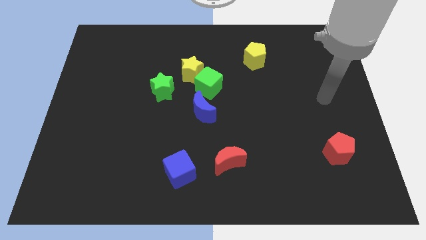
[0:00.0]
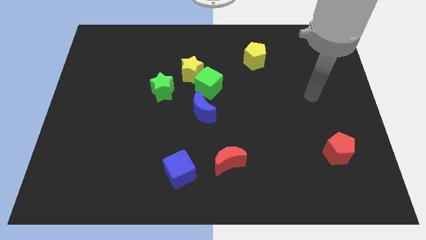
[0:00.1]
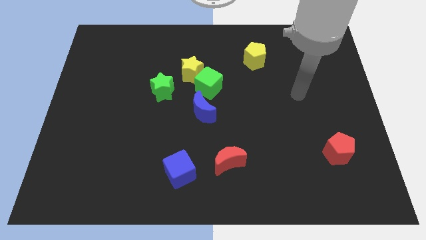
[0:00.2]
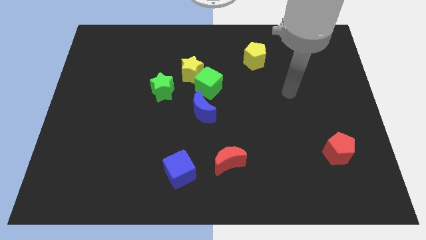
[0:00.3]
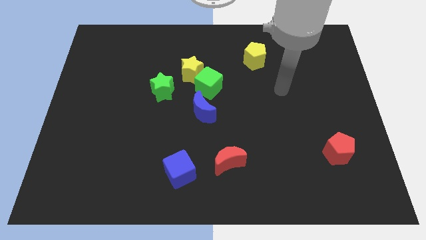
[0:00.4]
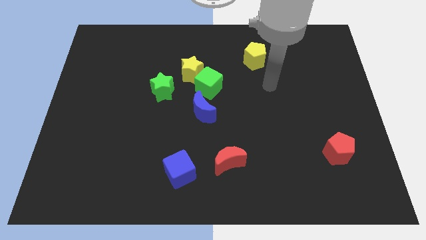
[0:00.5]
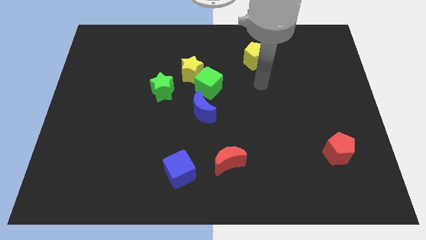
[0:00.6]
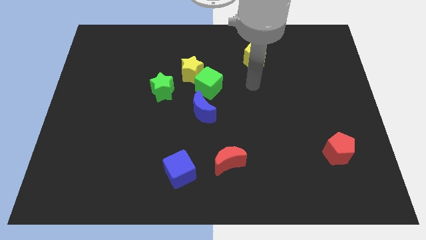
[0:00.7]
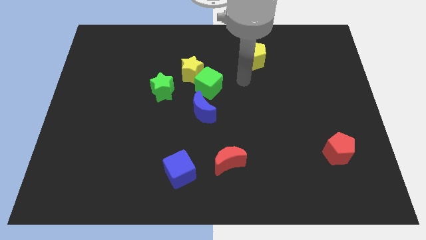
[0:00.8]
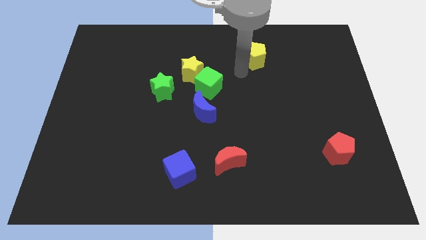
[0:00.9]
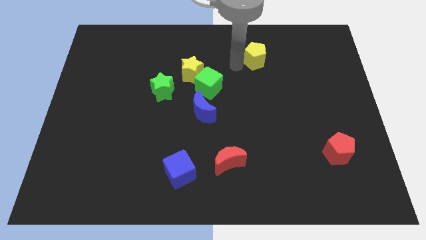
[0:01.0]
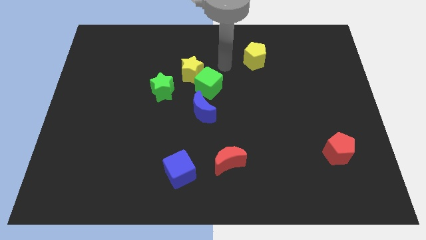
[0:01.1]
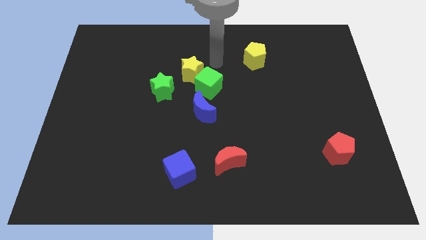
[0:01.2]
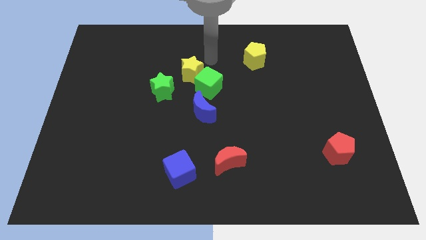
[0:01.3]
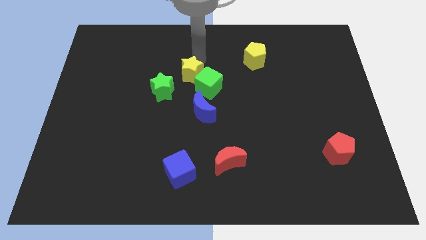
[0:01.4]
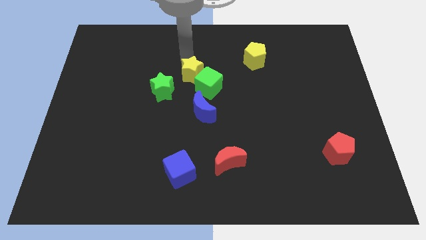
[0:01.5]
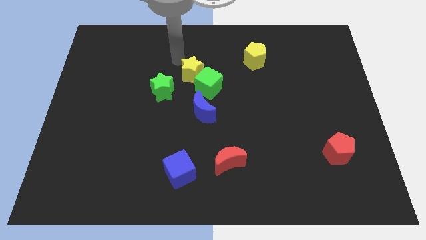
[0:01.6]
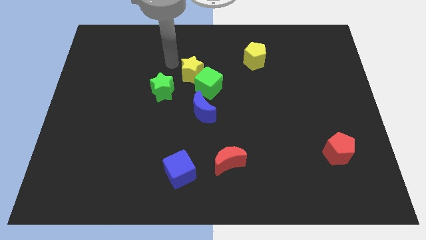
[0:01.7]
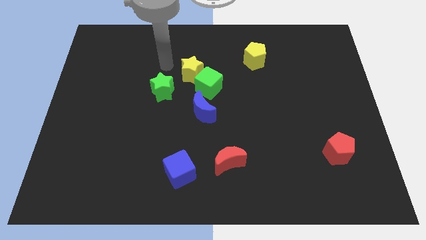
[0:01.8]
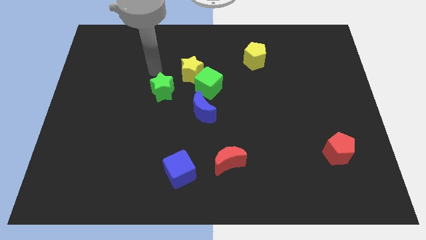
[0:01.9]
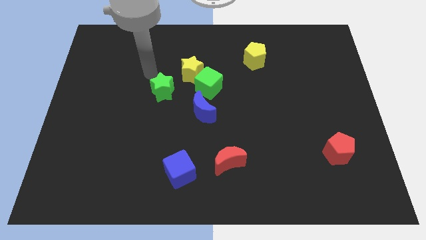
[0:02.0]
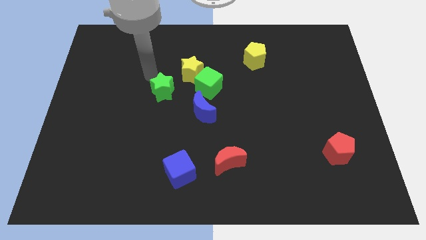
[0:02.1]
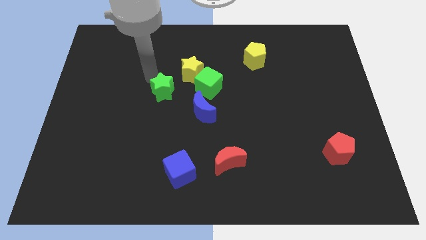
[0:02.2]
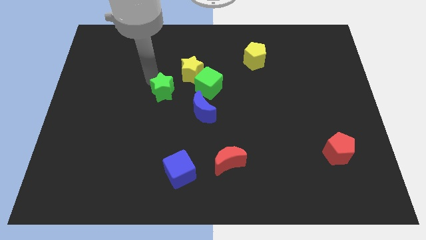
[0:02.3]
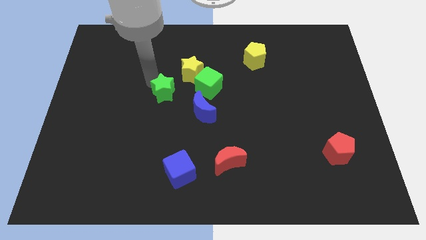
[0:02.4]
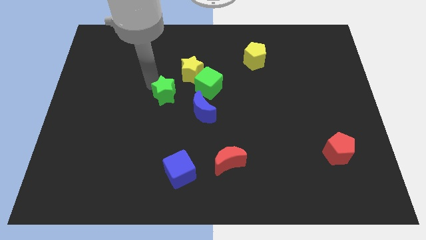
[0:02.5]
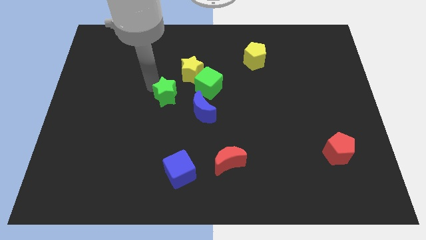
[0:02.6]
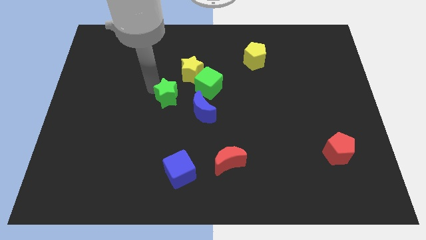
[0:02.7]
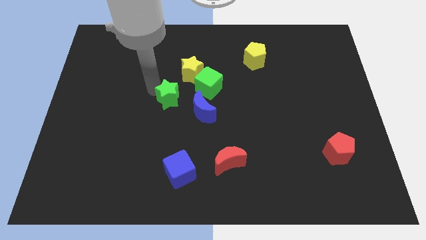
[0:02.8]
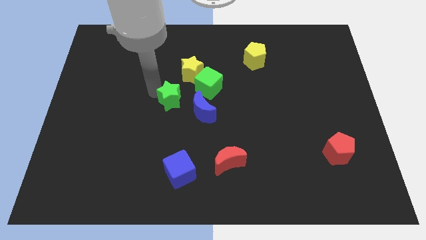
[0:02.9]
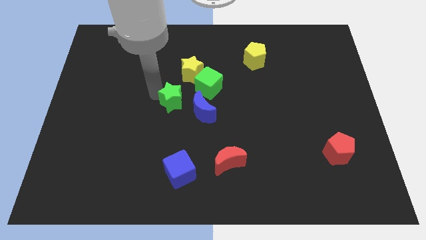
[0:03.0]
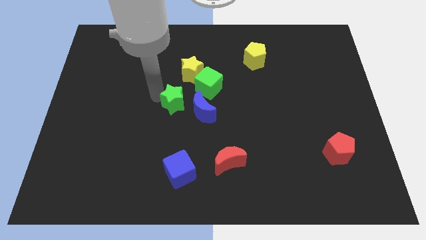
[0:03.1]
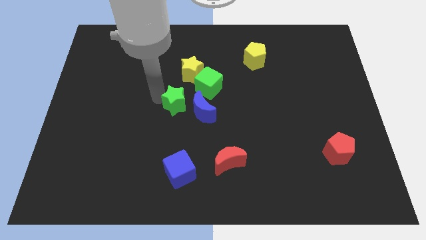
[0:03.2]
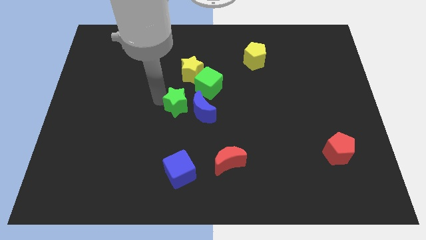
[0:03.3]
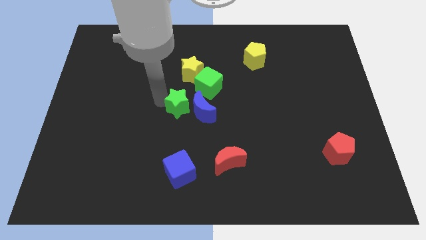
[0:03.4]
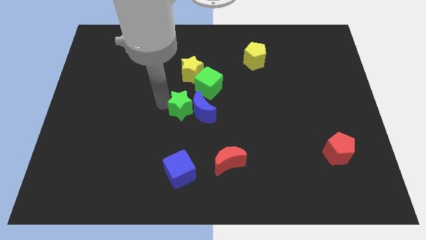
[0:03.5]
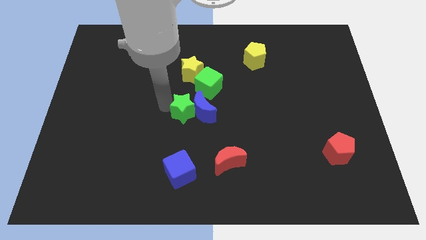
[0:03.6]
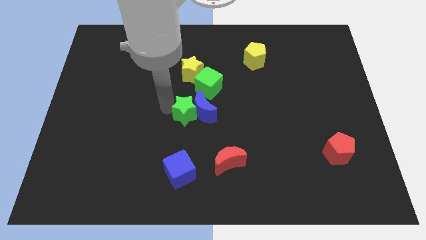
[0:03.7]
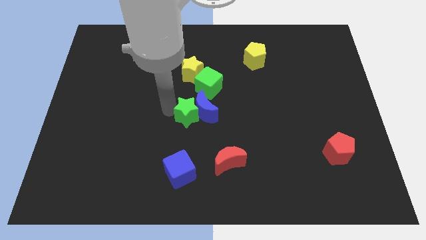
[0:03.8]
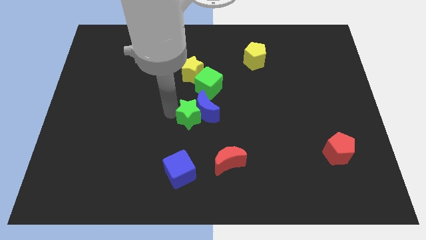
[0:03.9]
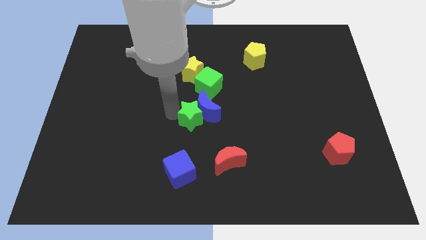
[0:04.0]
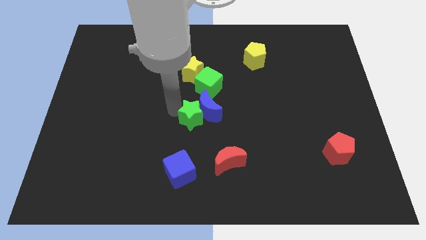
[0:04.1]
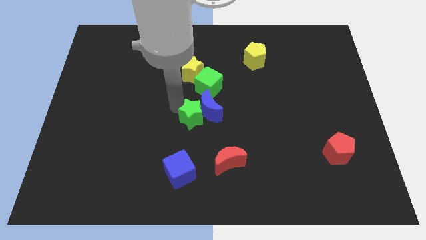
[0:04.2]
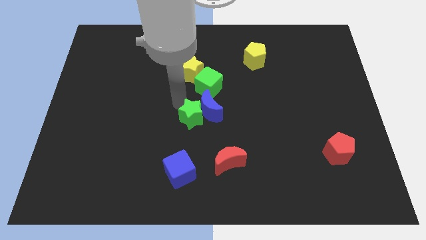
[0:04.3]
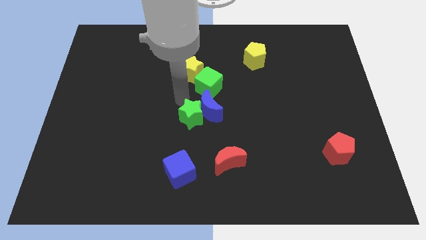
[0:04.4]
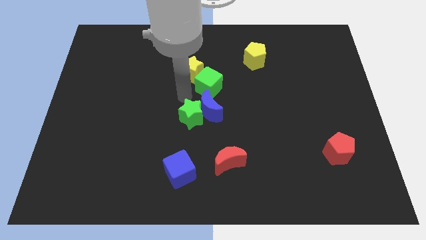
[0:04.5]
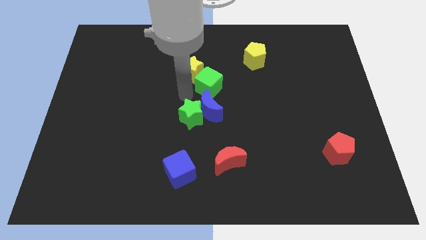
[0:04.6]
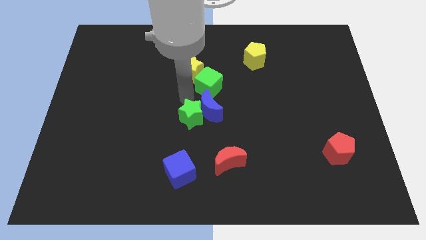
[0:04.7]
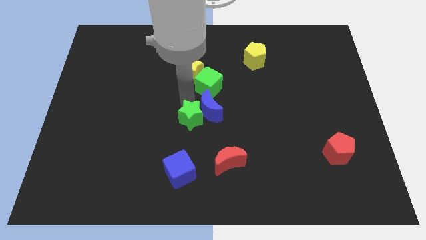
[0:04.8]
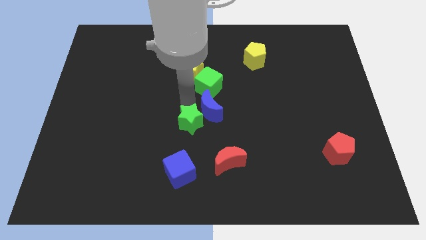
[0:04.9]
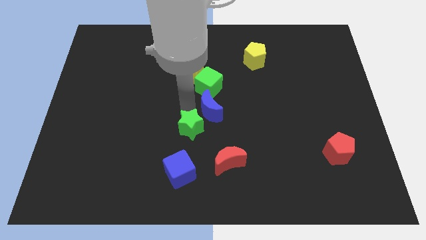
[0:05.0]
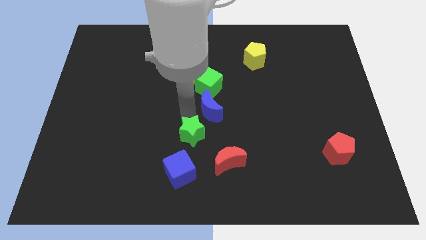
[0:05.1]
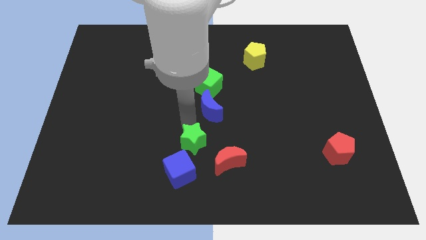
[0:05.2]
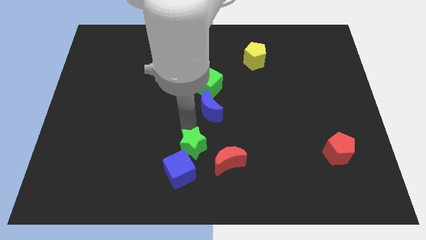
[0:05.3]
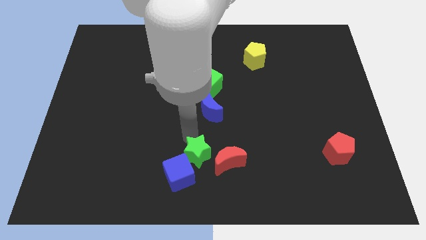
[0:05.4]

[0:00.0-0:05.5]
move the green star to the bottom side
